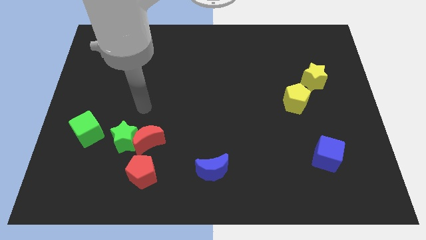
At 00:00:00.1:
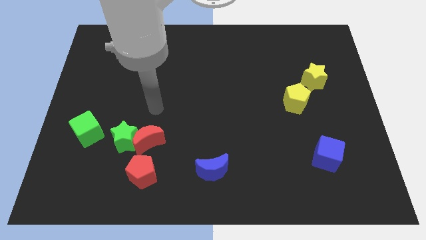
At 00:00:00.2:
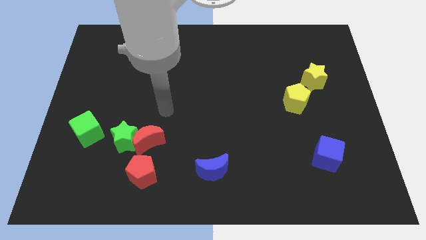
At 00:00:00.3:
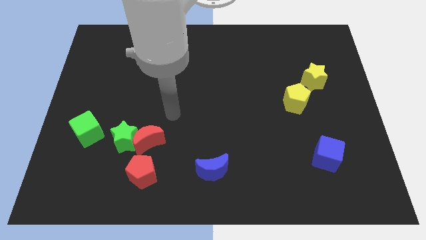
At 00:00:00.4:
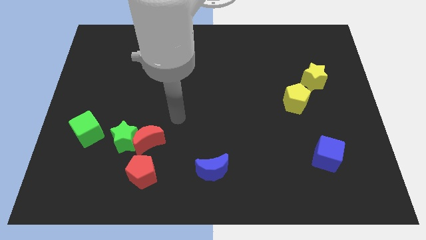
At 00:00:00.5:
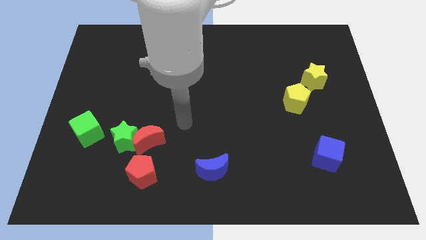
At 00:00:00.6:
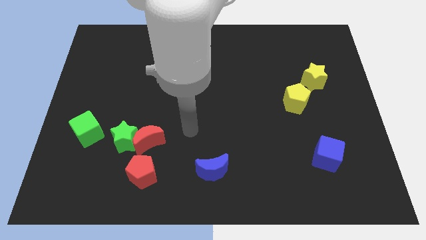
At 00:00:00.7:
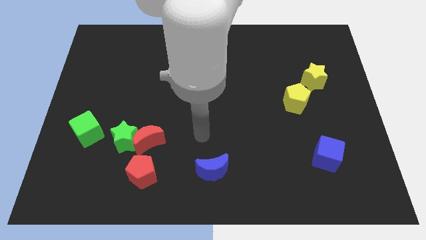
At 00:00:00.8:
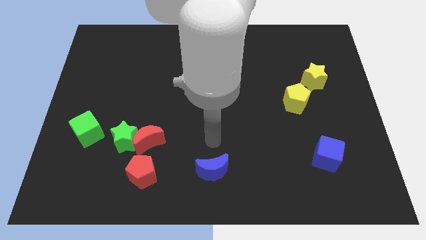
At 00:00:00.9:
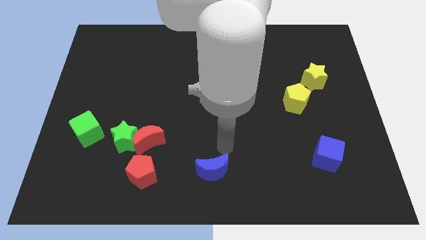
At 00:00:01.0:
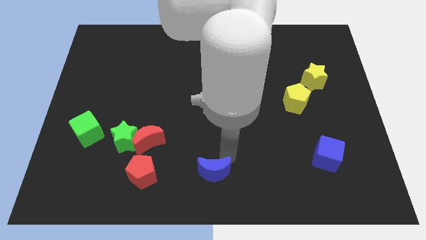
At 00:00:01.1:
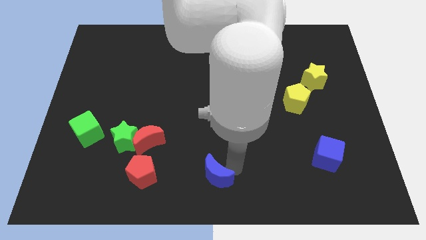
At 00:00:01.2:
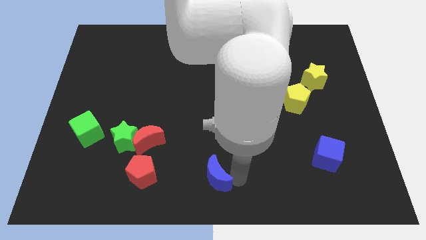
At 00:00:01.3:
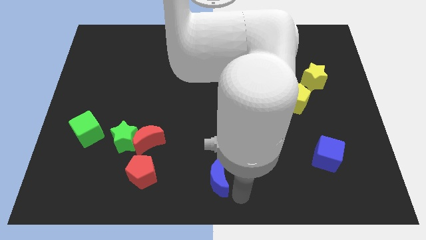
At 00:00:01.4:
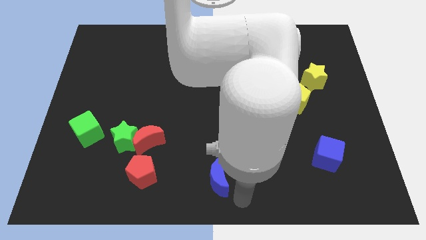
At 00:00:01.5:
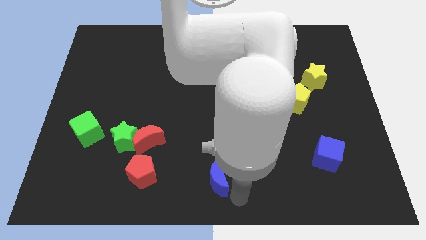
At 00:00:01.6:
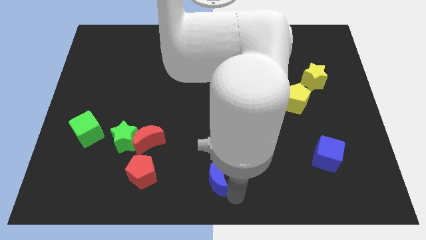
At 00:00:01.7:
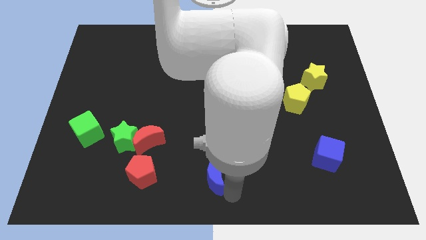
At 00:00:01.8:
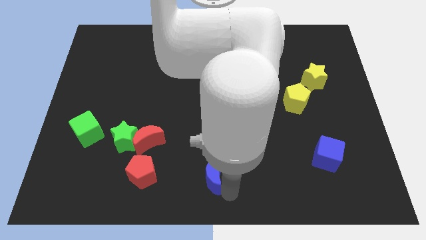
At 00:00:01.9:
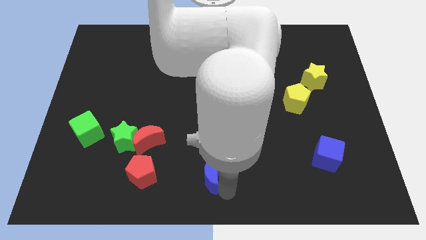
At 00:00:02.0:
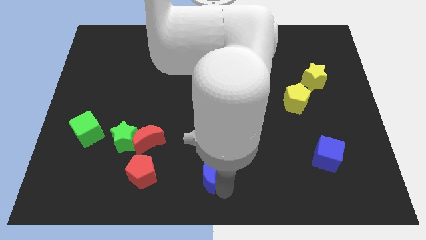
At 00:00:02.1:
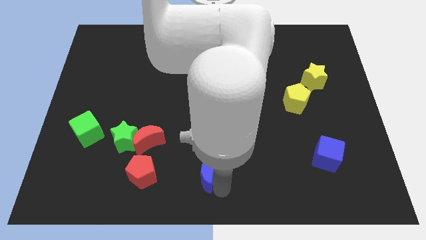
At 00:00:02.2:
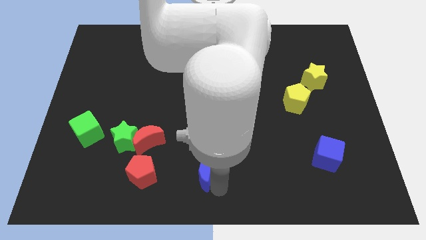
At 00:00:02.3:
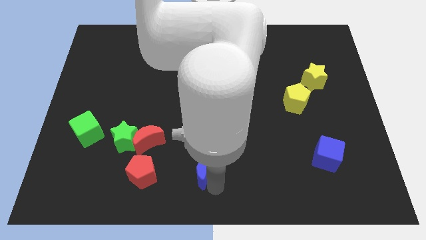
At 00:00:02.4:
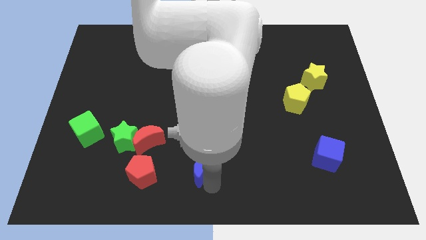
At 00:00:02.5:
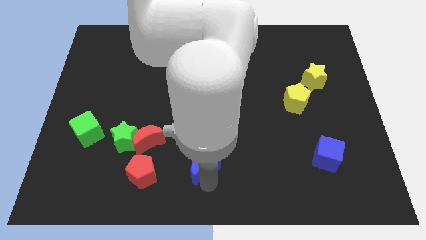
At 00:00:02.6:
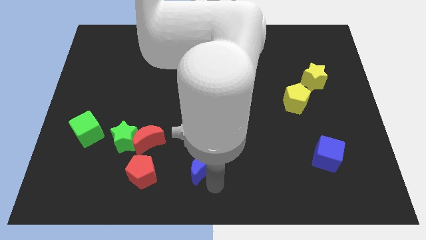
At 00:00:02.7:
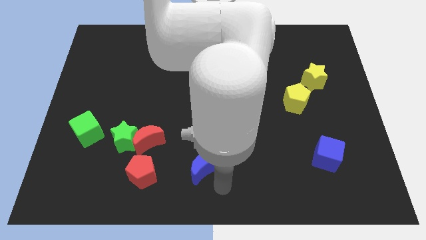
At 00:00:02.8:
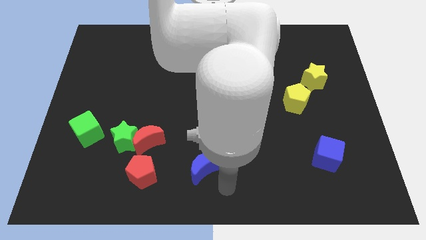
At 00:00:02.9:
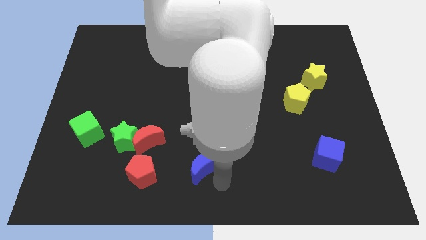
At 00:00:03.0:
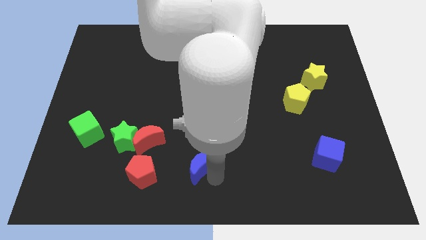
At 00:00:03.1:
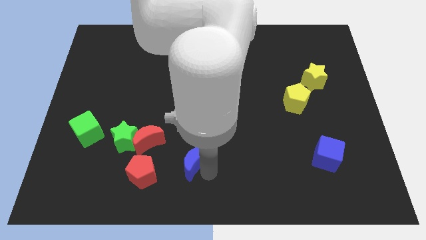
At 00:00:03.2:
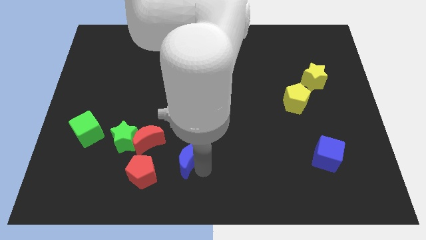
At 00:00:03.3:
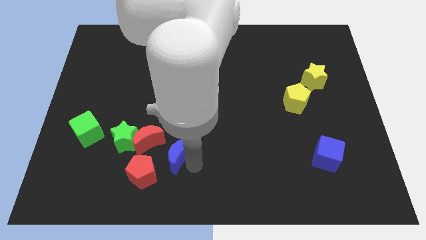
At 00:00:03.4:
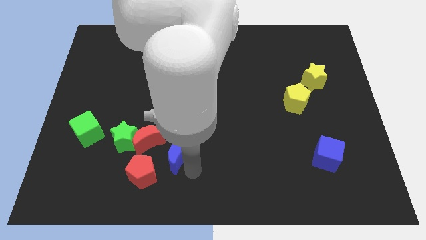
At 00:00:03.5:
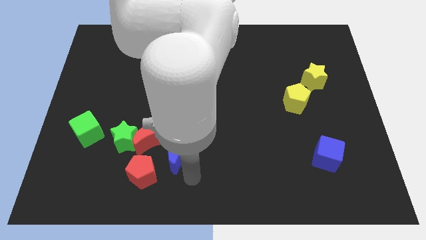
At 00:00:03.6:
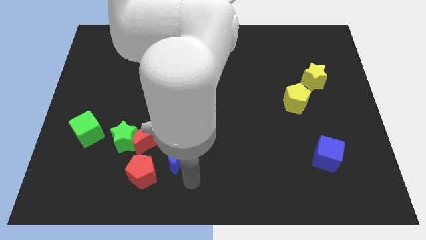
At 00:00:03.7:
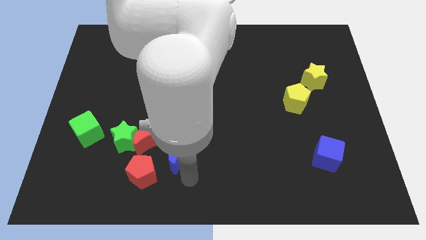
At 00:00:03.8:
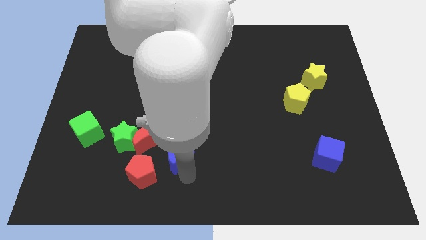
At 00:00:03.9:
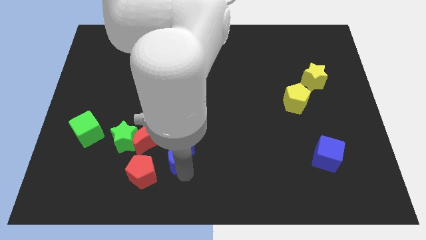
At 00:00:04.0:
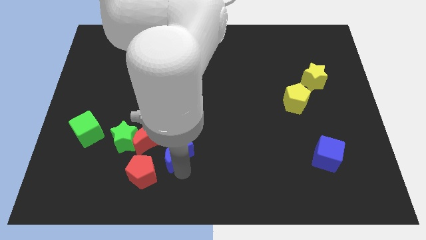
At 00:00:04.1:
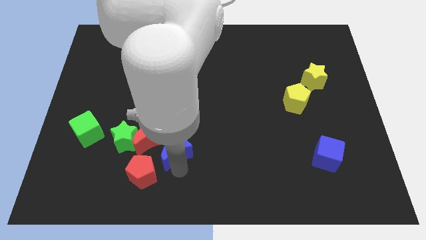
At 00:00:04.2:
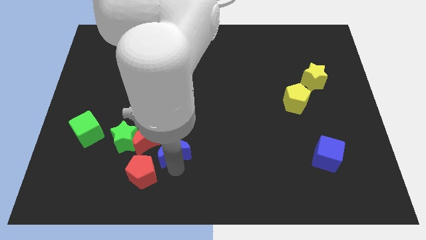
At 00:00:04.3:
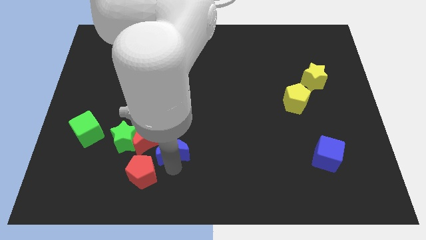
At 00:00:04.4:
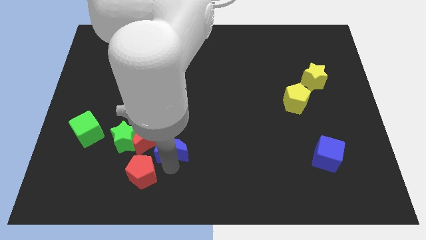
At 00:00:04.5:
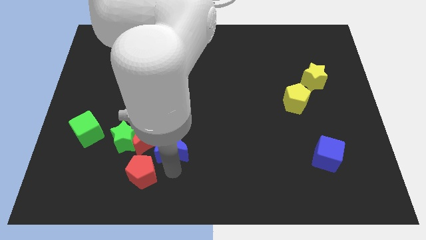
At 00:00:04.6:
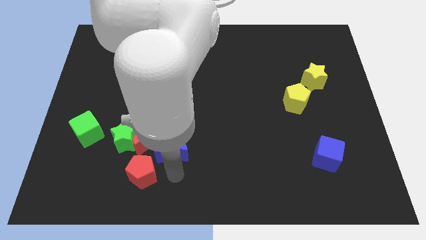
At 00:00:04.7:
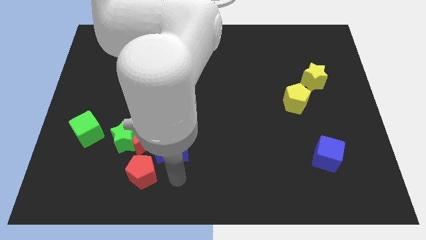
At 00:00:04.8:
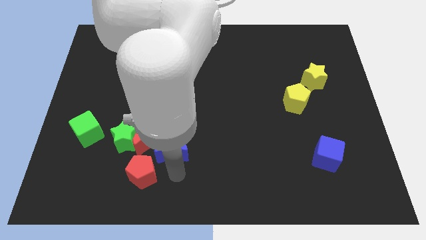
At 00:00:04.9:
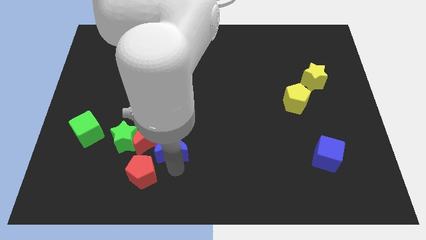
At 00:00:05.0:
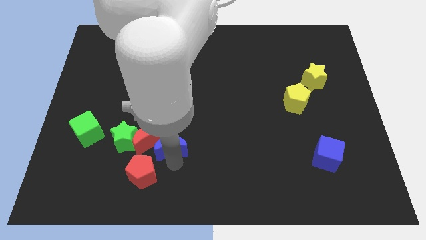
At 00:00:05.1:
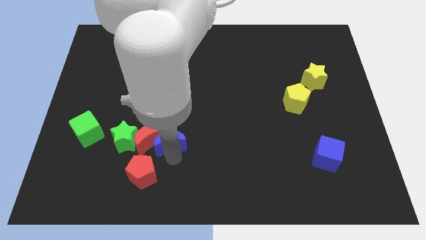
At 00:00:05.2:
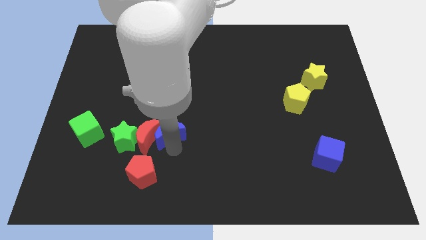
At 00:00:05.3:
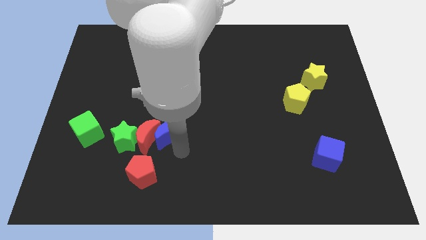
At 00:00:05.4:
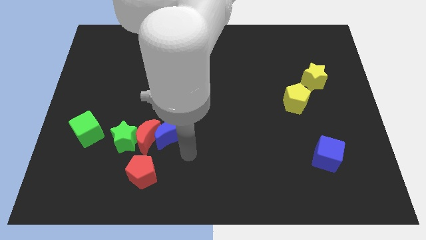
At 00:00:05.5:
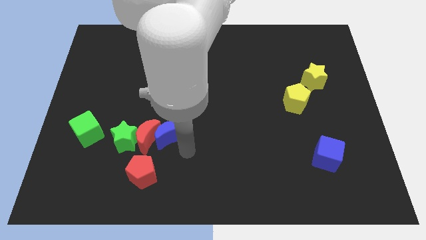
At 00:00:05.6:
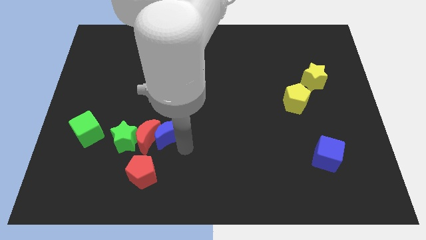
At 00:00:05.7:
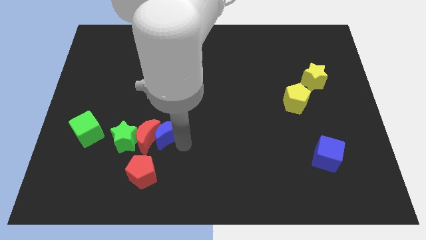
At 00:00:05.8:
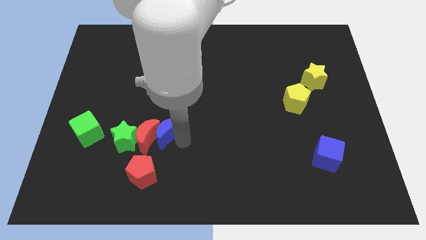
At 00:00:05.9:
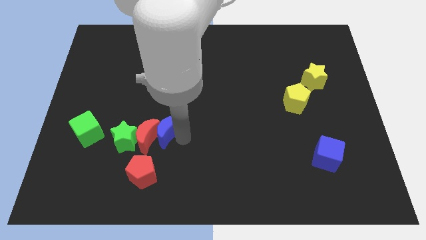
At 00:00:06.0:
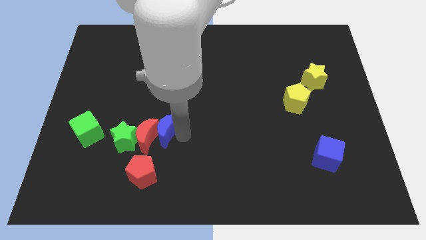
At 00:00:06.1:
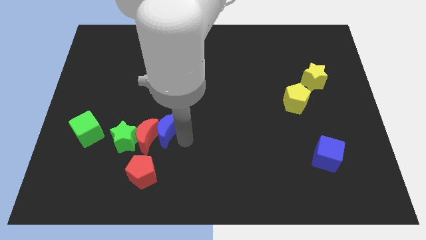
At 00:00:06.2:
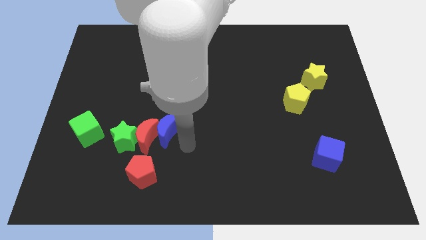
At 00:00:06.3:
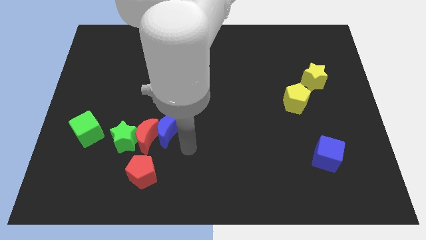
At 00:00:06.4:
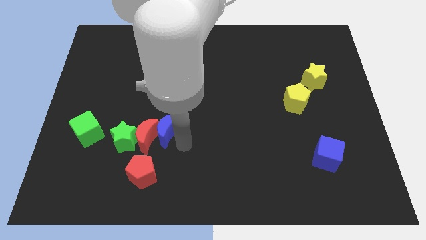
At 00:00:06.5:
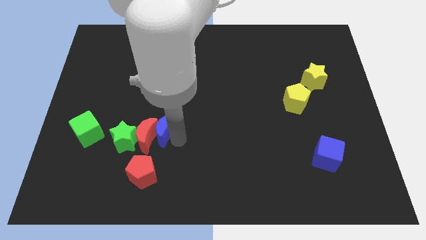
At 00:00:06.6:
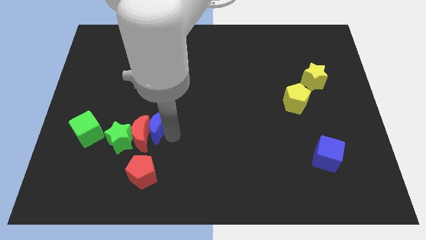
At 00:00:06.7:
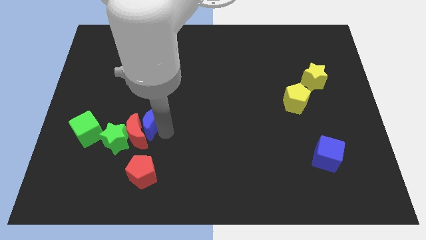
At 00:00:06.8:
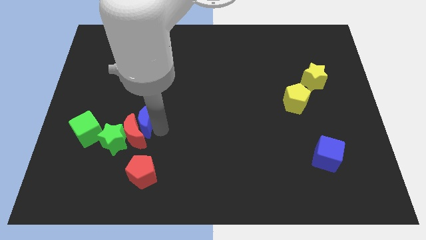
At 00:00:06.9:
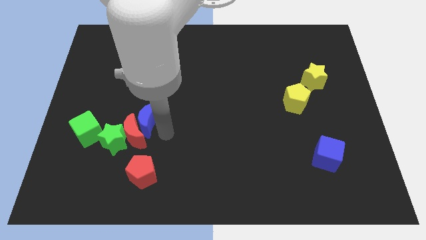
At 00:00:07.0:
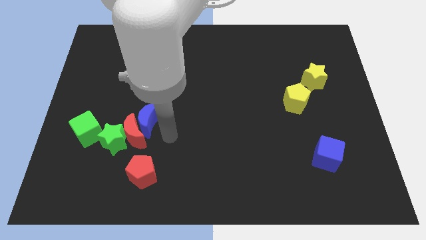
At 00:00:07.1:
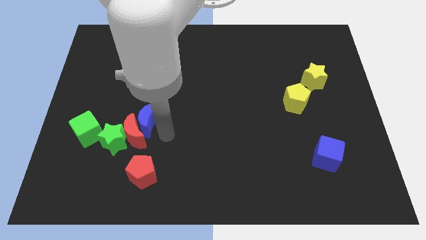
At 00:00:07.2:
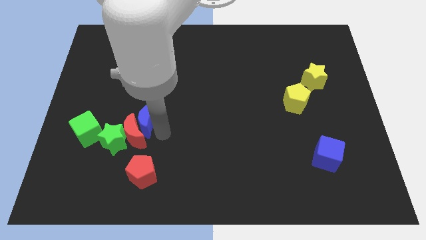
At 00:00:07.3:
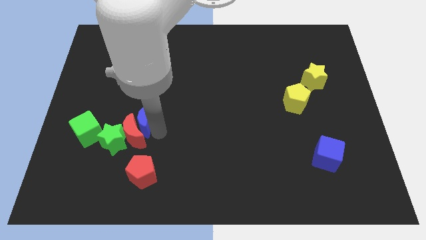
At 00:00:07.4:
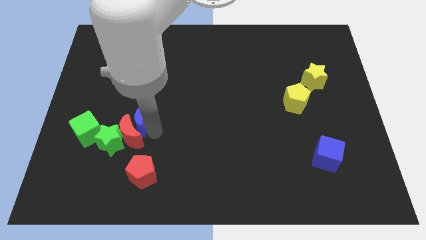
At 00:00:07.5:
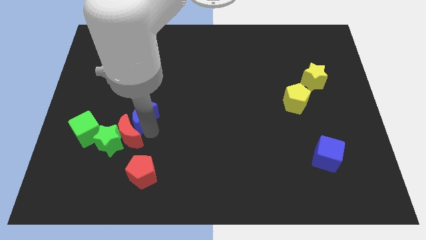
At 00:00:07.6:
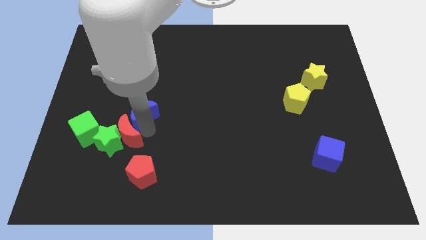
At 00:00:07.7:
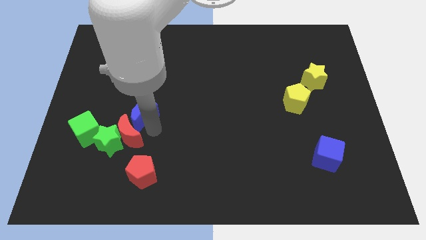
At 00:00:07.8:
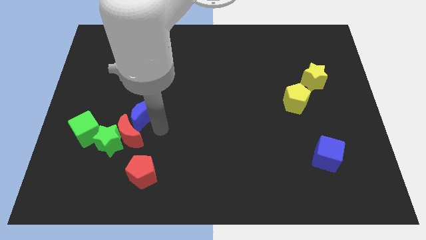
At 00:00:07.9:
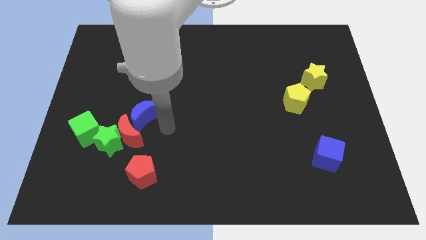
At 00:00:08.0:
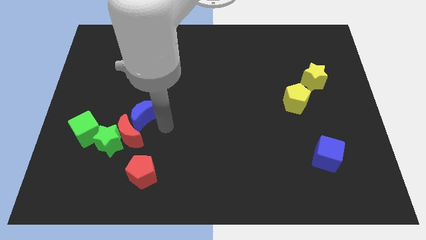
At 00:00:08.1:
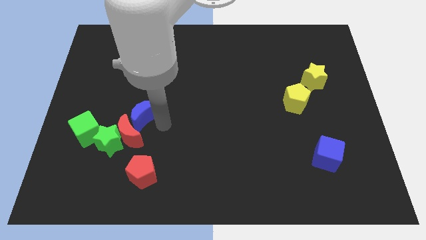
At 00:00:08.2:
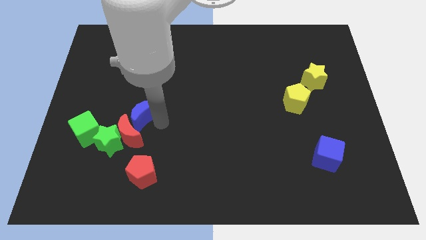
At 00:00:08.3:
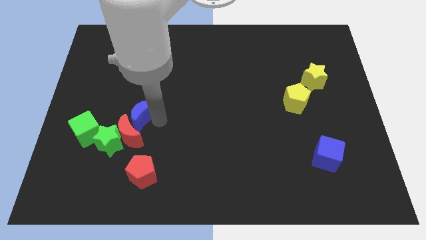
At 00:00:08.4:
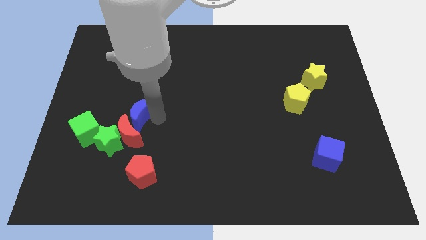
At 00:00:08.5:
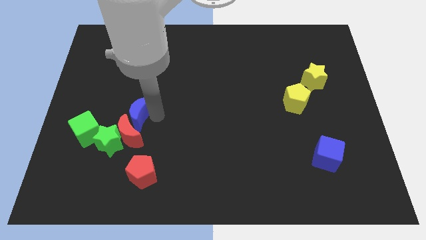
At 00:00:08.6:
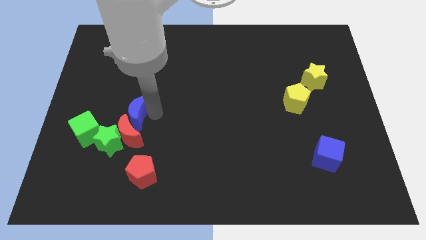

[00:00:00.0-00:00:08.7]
slide the blue moon above the green star
